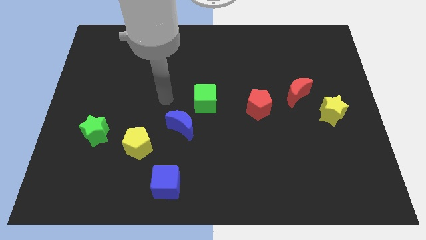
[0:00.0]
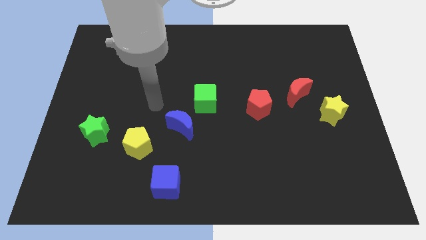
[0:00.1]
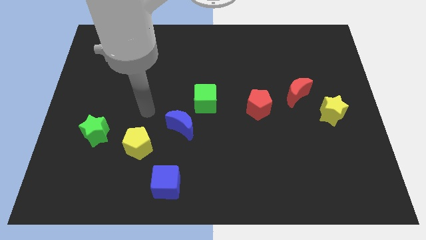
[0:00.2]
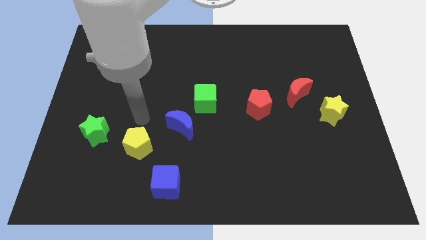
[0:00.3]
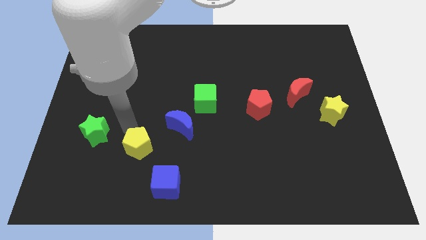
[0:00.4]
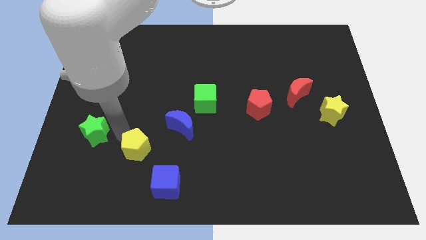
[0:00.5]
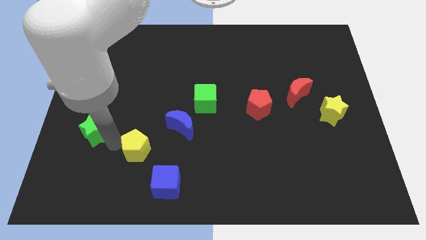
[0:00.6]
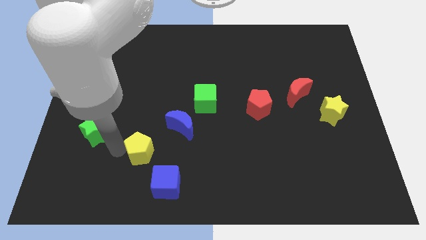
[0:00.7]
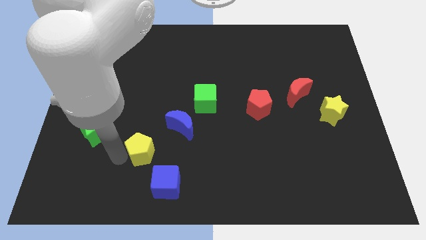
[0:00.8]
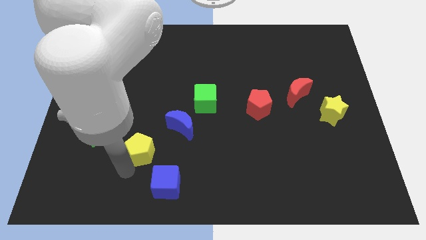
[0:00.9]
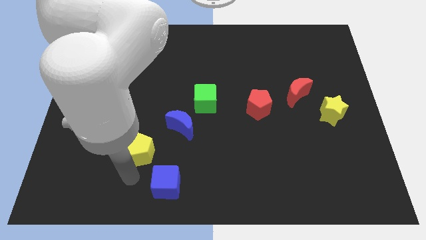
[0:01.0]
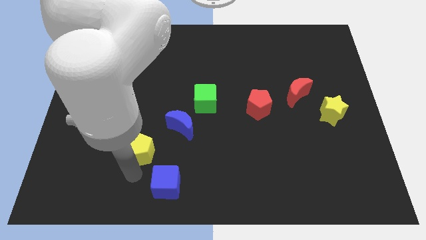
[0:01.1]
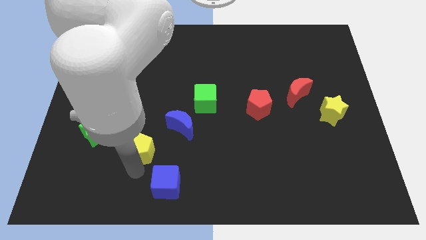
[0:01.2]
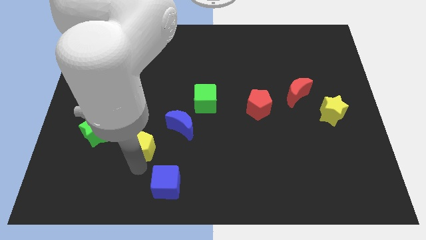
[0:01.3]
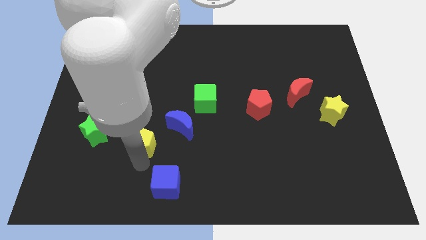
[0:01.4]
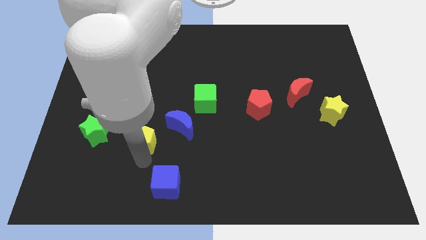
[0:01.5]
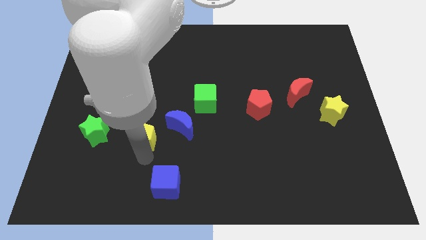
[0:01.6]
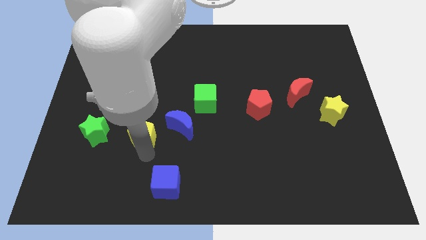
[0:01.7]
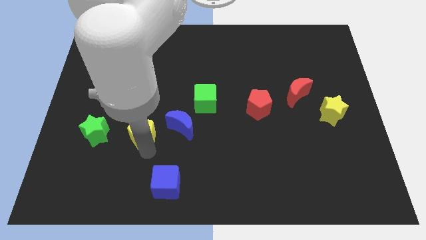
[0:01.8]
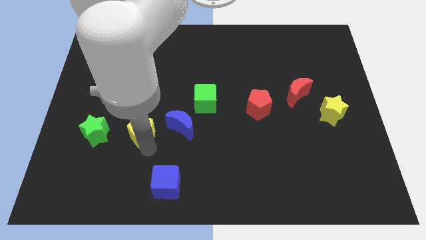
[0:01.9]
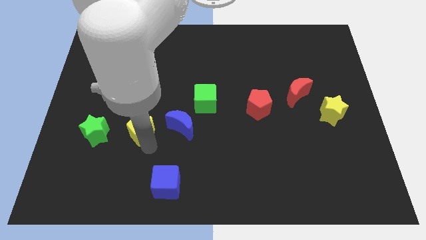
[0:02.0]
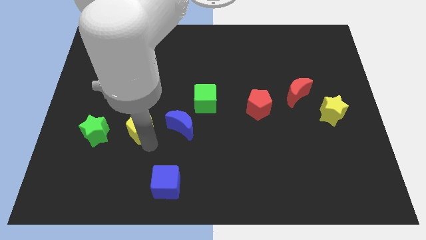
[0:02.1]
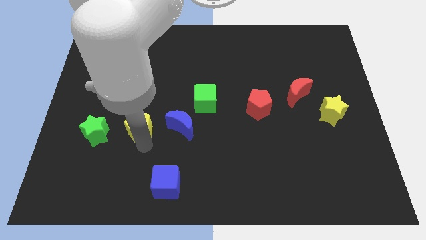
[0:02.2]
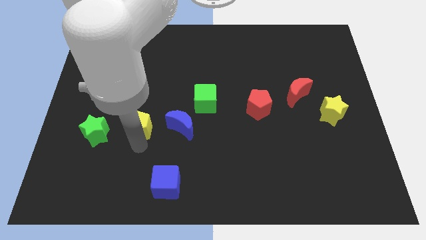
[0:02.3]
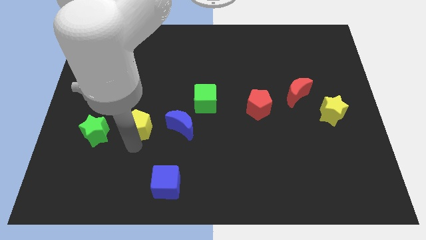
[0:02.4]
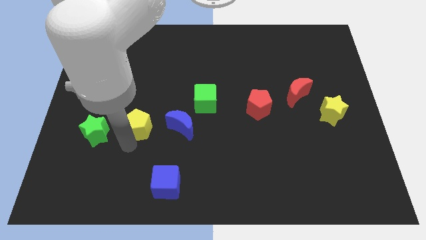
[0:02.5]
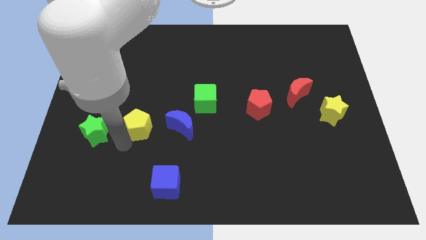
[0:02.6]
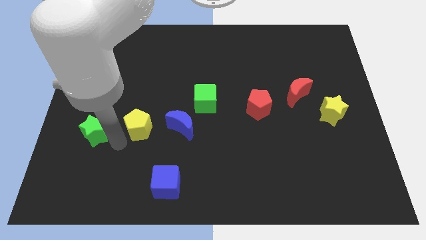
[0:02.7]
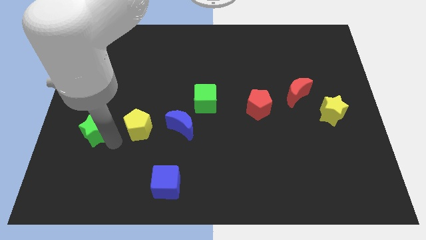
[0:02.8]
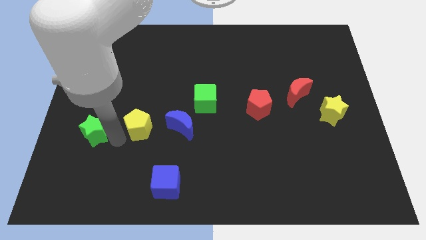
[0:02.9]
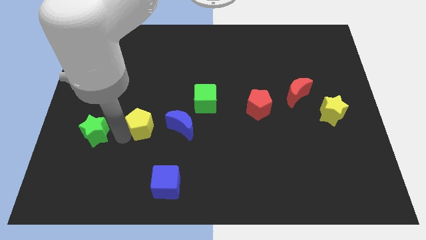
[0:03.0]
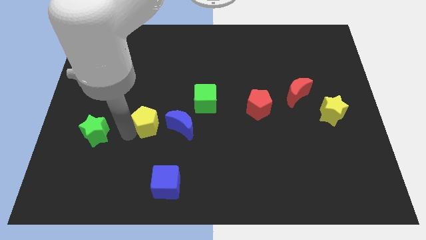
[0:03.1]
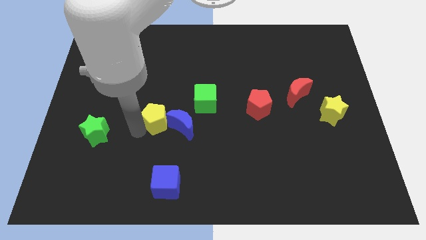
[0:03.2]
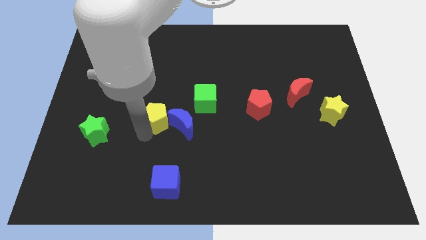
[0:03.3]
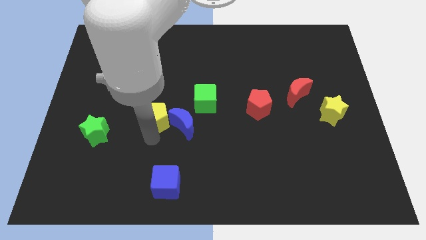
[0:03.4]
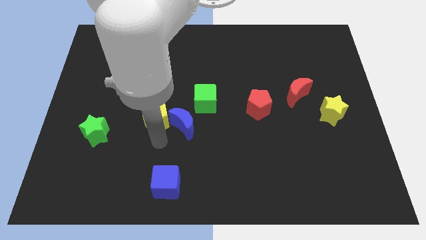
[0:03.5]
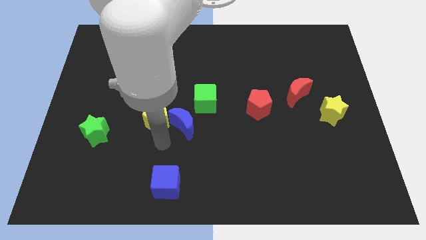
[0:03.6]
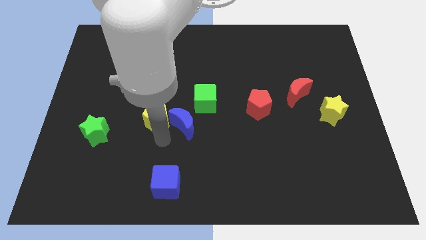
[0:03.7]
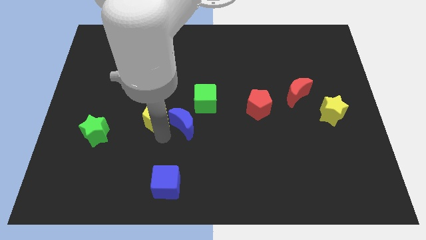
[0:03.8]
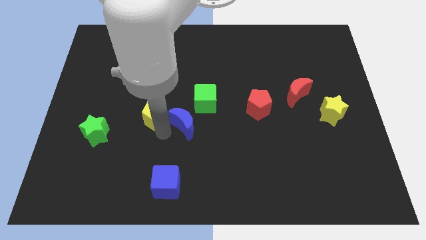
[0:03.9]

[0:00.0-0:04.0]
push the yellow pentagon slightly up

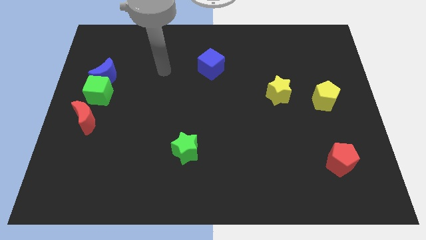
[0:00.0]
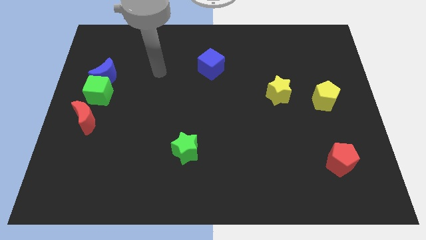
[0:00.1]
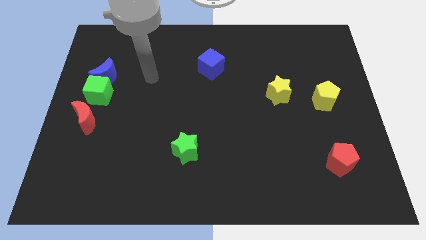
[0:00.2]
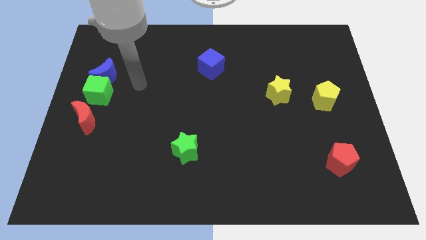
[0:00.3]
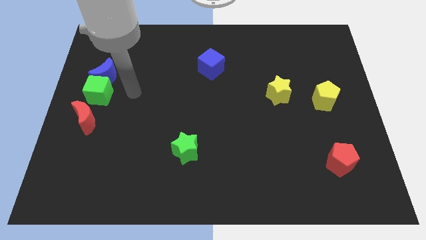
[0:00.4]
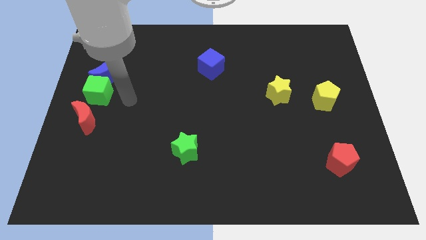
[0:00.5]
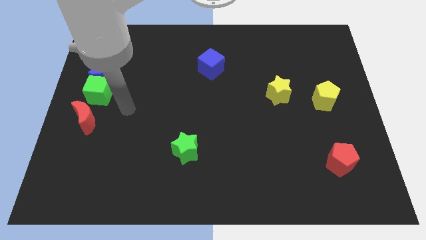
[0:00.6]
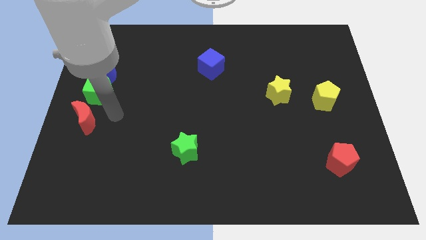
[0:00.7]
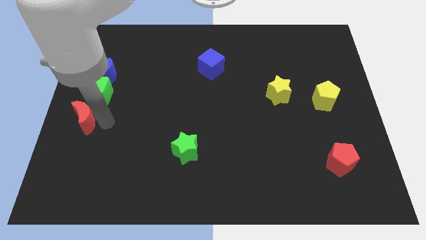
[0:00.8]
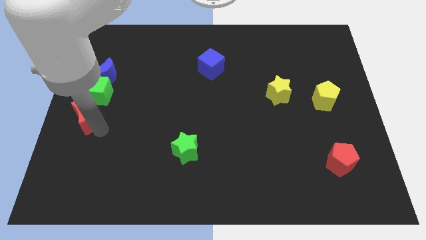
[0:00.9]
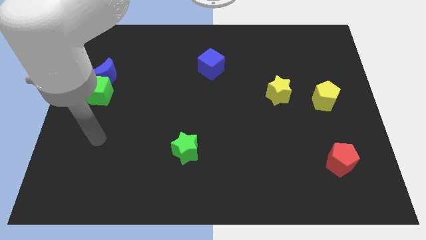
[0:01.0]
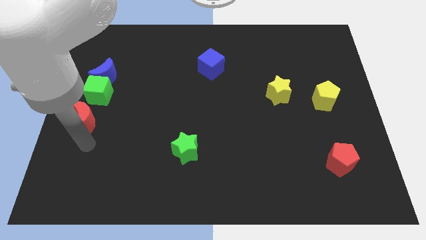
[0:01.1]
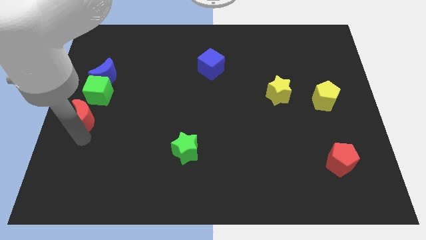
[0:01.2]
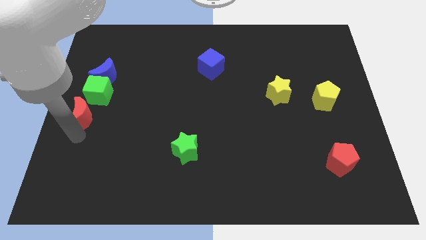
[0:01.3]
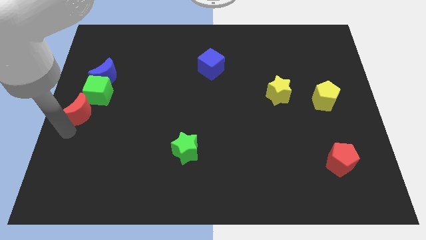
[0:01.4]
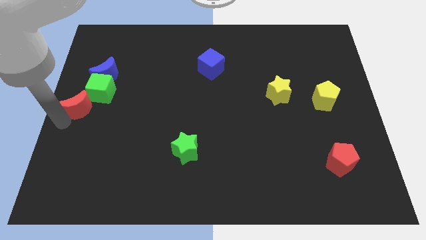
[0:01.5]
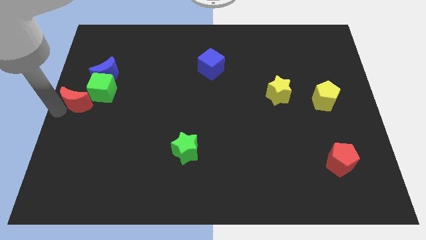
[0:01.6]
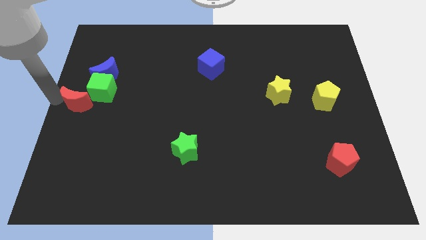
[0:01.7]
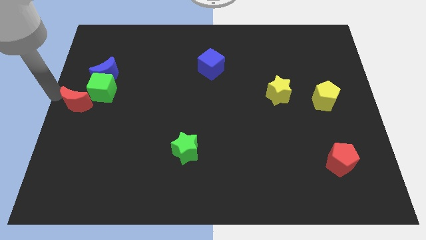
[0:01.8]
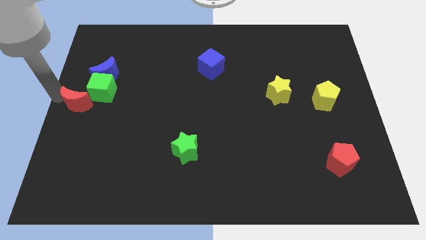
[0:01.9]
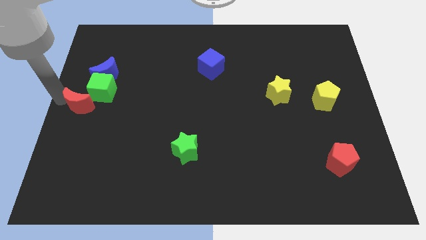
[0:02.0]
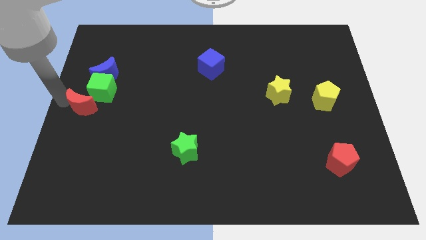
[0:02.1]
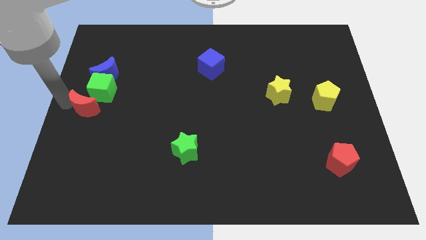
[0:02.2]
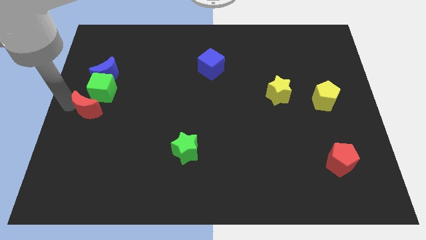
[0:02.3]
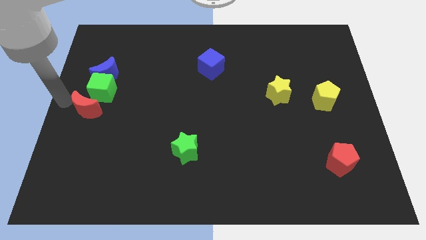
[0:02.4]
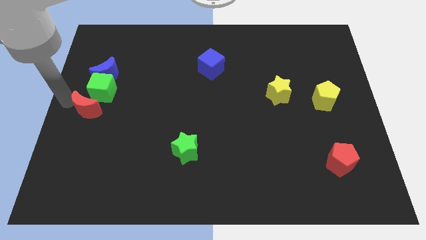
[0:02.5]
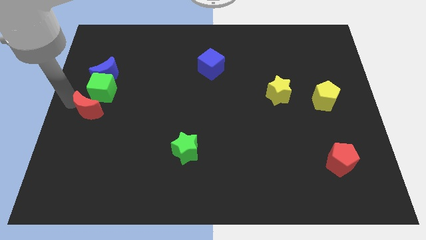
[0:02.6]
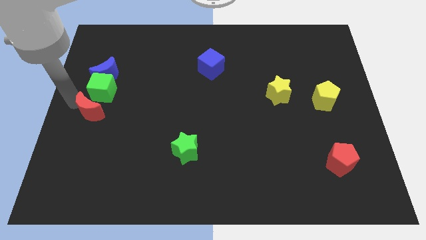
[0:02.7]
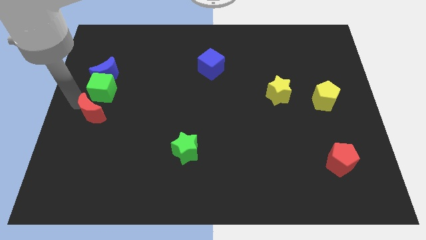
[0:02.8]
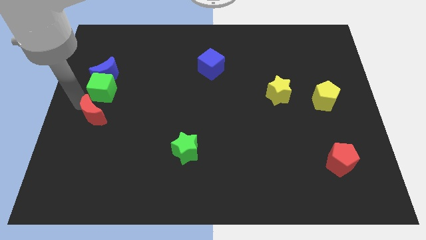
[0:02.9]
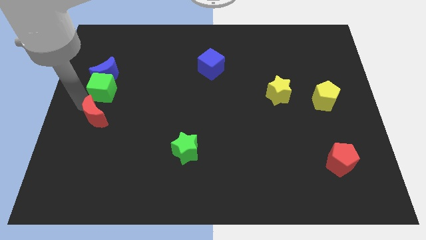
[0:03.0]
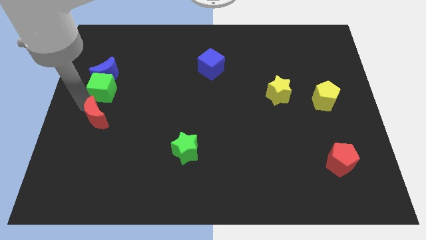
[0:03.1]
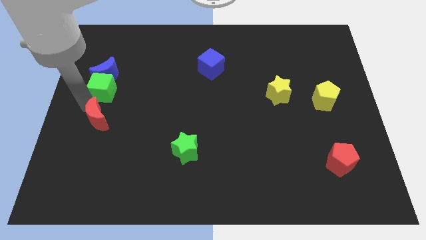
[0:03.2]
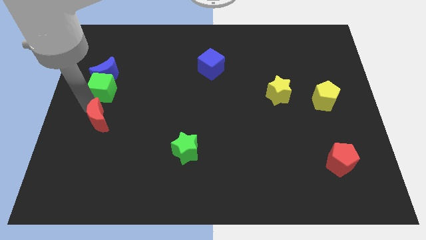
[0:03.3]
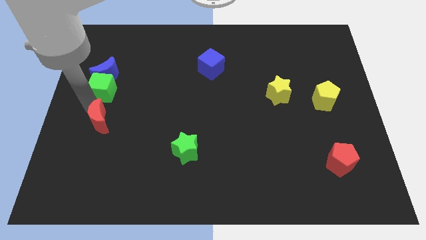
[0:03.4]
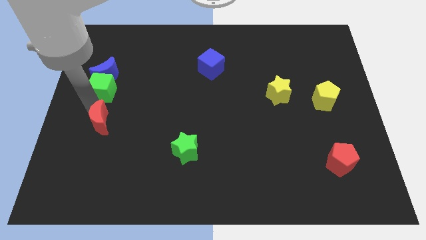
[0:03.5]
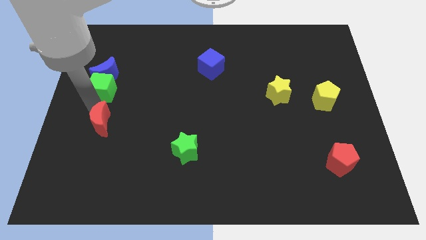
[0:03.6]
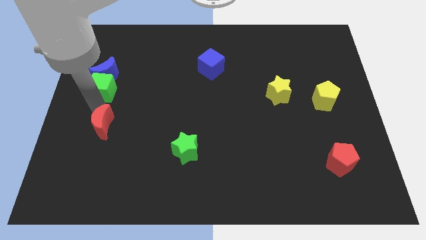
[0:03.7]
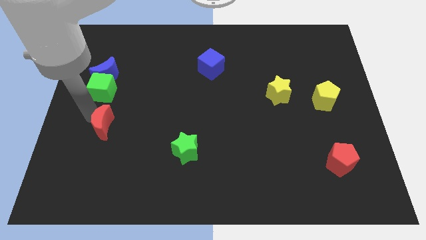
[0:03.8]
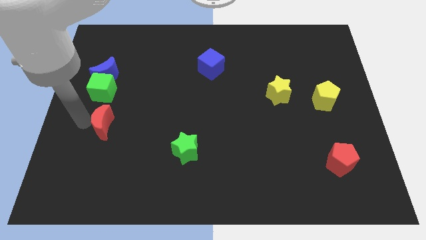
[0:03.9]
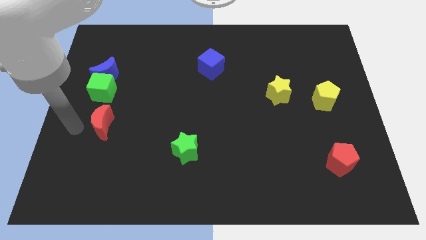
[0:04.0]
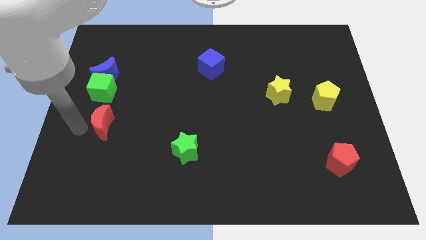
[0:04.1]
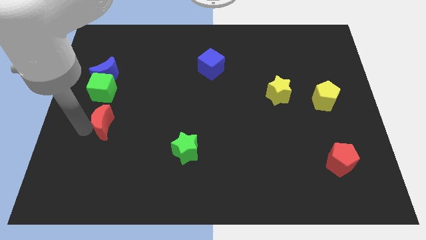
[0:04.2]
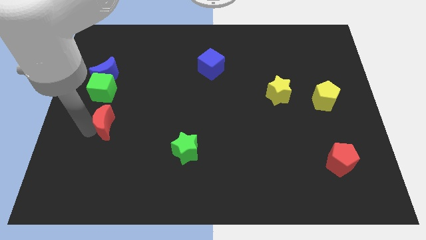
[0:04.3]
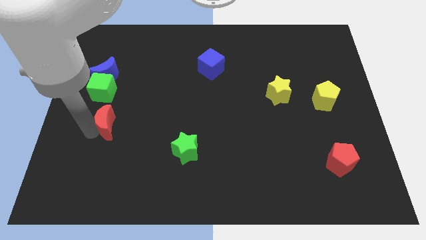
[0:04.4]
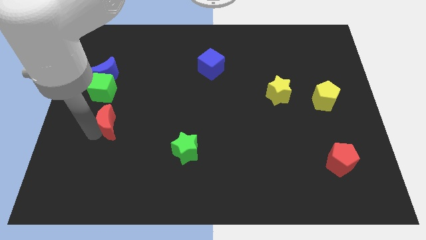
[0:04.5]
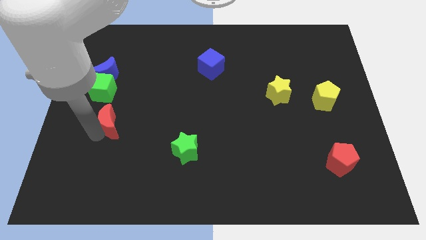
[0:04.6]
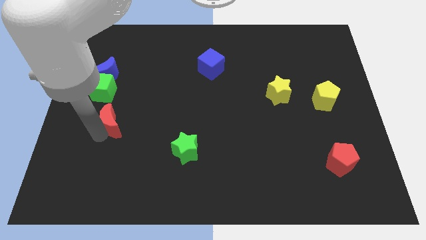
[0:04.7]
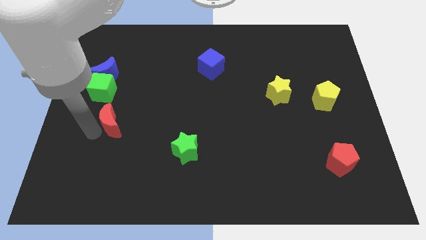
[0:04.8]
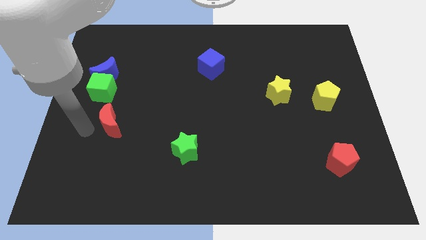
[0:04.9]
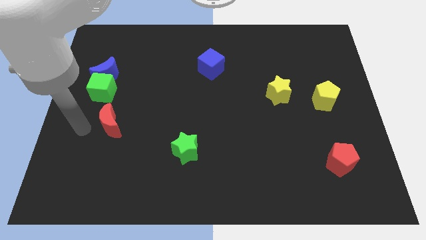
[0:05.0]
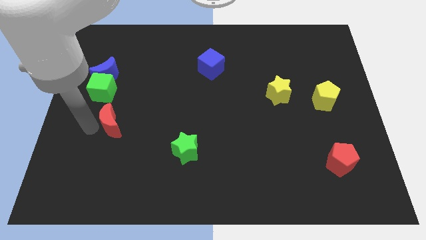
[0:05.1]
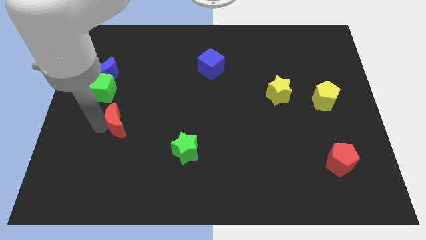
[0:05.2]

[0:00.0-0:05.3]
push the red moon to the right a bit
